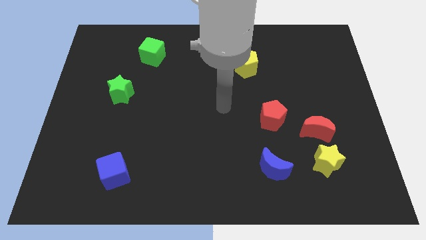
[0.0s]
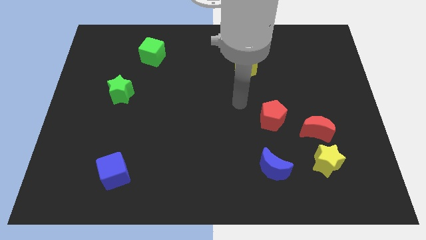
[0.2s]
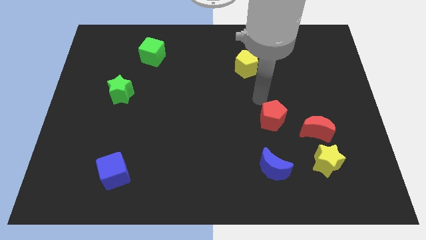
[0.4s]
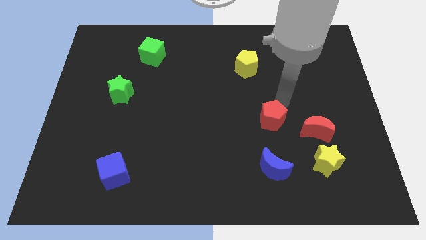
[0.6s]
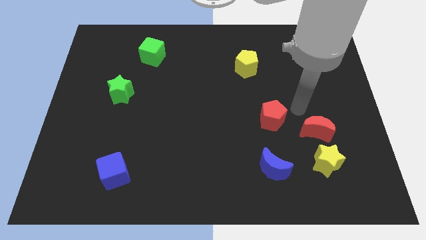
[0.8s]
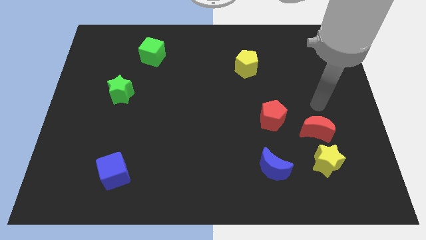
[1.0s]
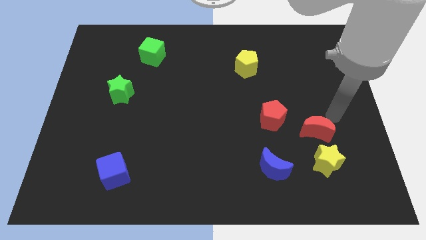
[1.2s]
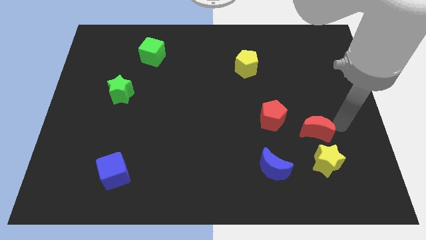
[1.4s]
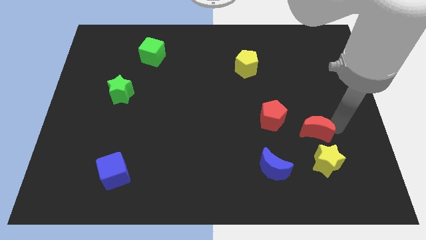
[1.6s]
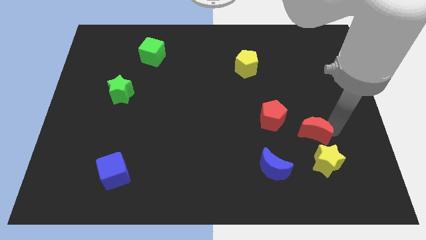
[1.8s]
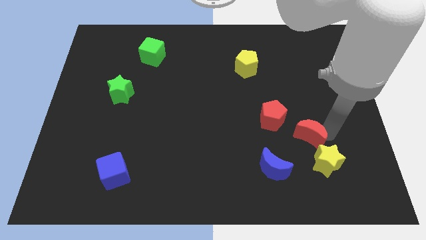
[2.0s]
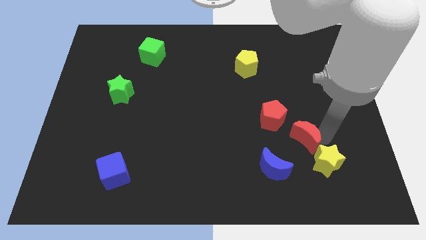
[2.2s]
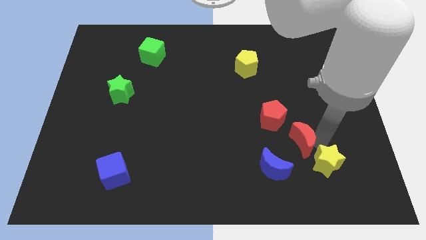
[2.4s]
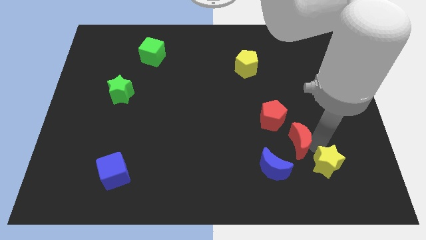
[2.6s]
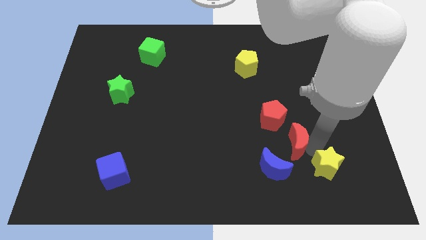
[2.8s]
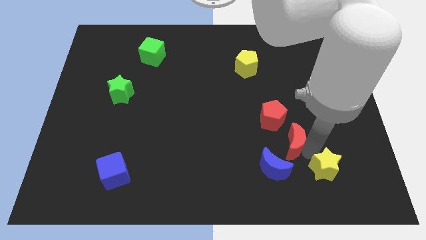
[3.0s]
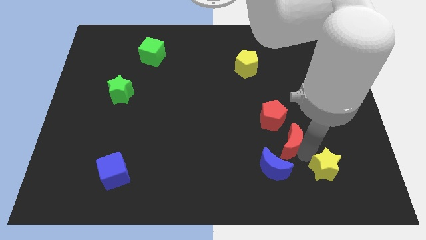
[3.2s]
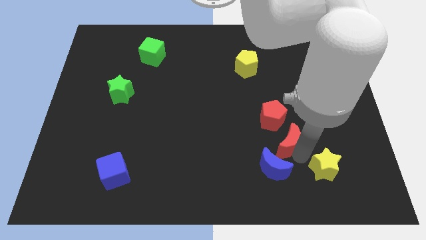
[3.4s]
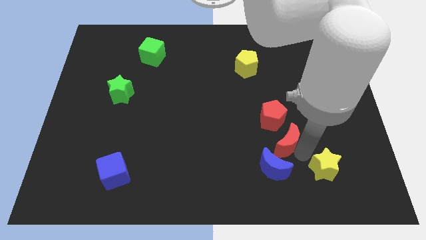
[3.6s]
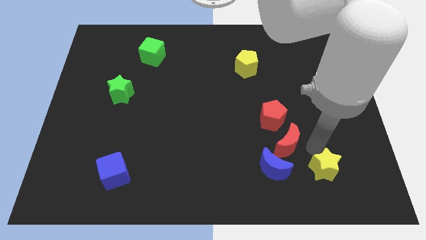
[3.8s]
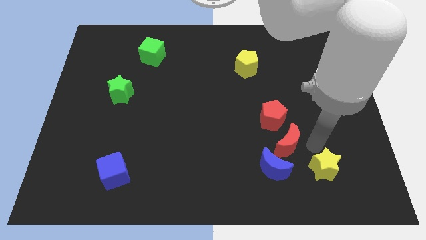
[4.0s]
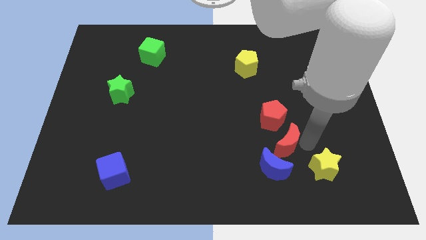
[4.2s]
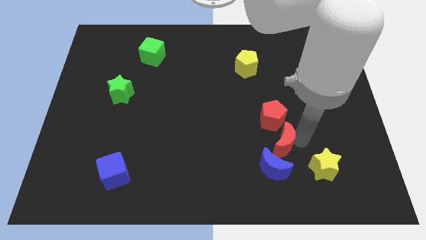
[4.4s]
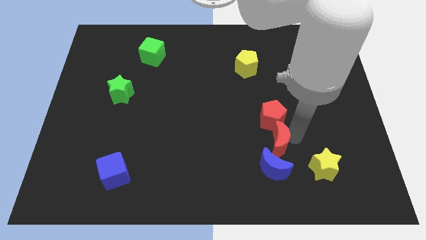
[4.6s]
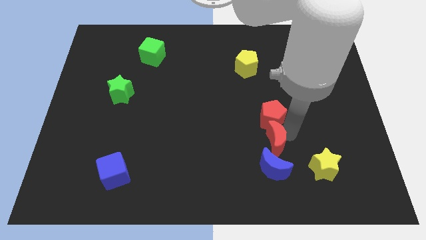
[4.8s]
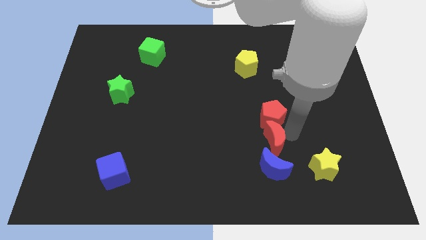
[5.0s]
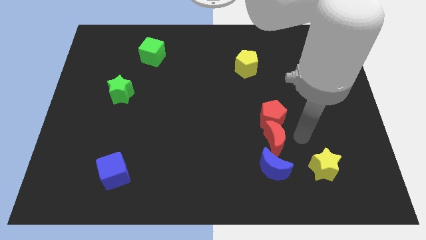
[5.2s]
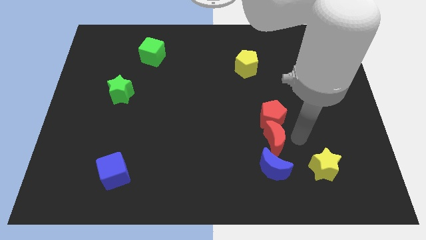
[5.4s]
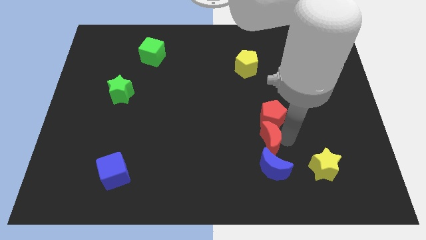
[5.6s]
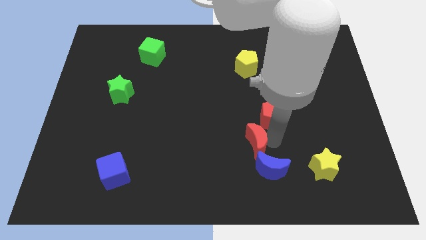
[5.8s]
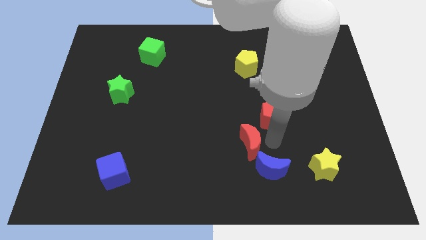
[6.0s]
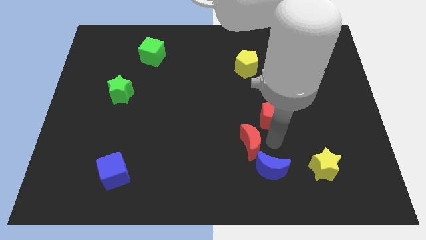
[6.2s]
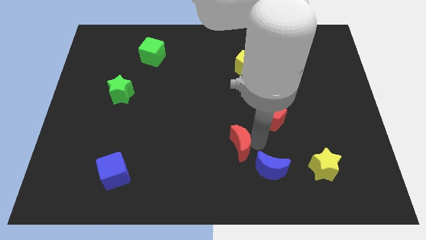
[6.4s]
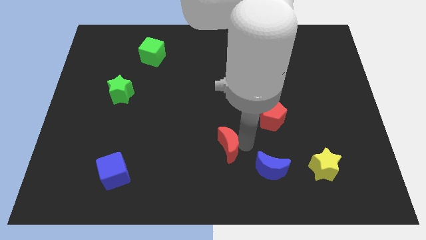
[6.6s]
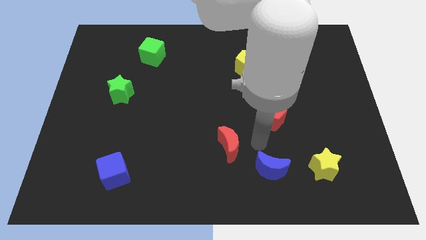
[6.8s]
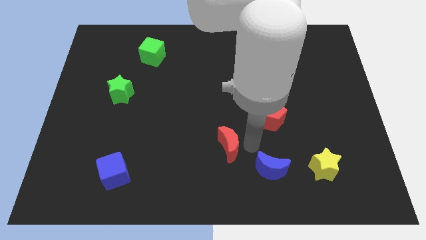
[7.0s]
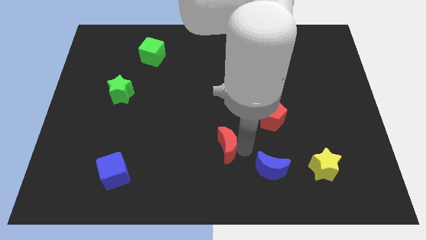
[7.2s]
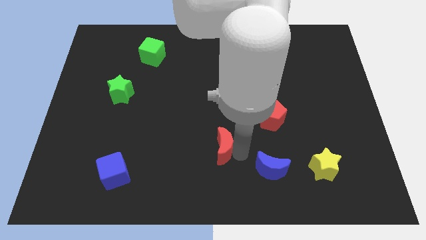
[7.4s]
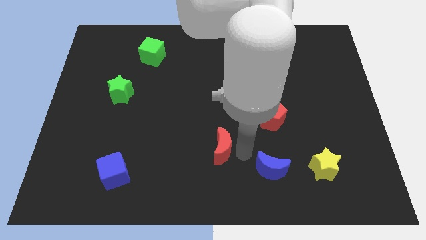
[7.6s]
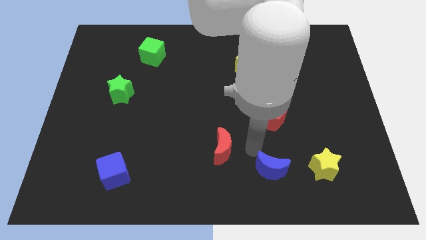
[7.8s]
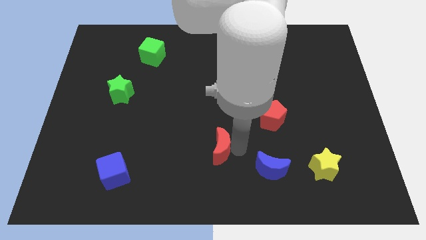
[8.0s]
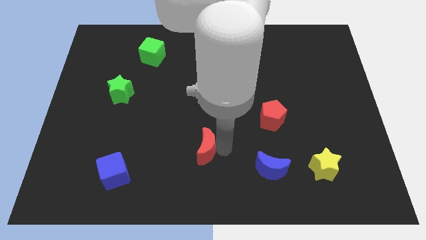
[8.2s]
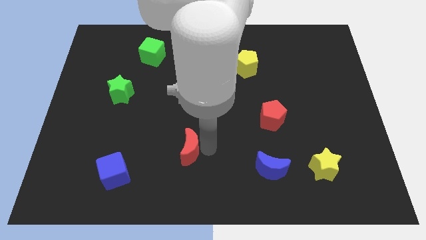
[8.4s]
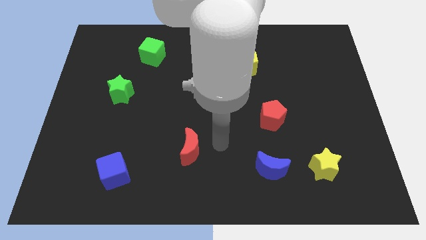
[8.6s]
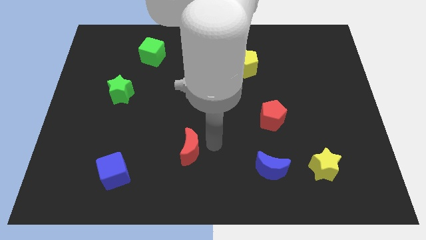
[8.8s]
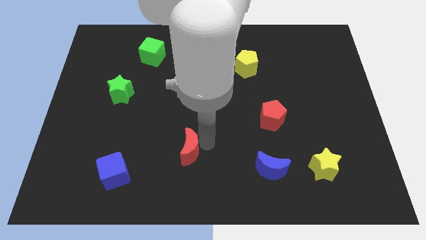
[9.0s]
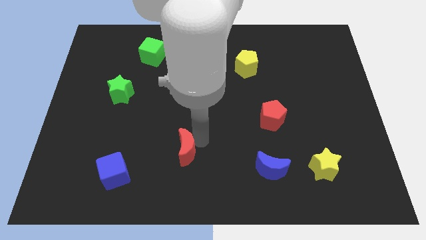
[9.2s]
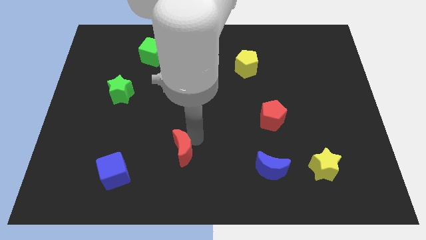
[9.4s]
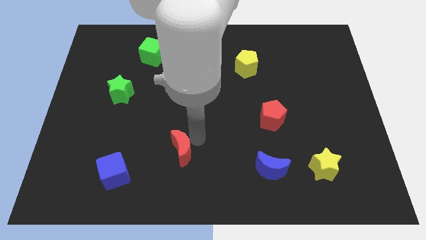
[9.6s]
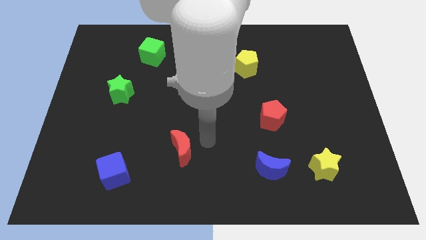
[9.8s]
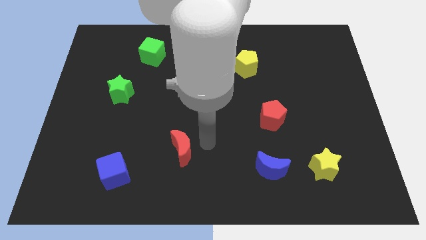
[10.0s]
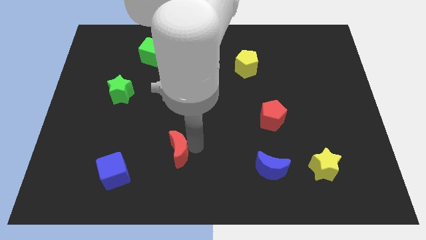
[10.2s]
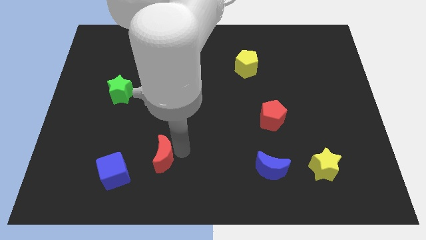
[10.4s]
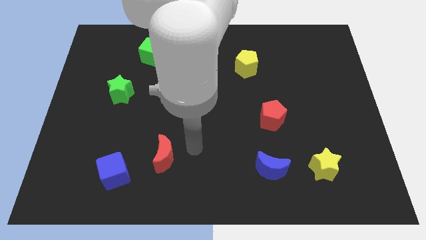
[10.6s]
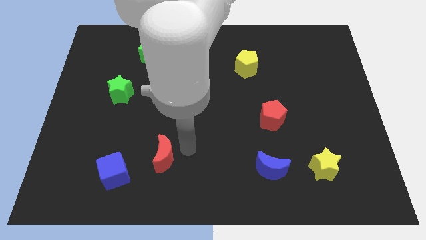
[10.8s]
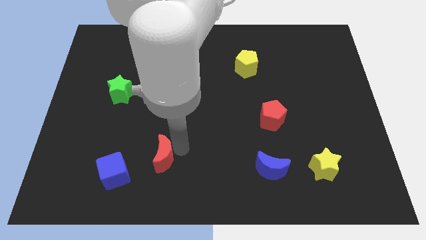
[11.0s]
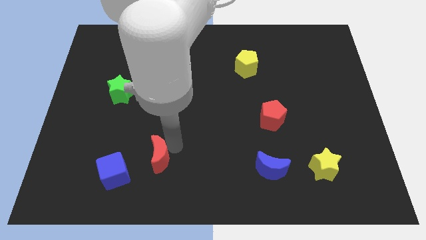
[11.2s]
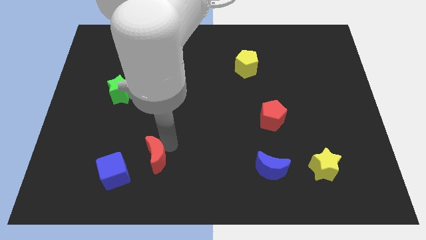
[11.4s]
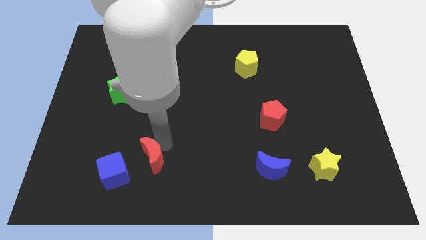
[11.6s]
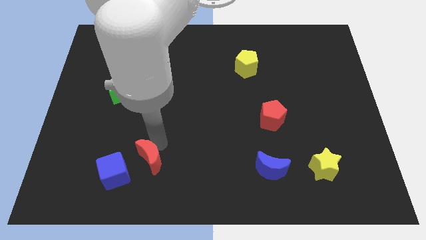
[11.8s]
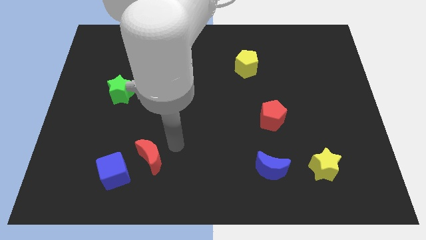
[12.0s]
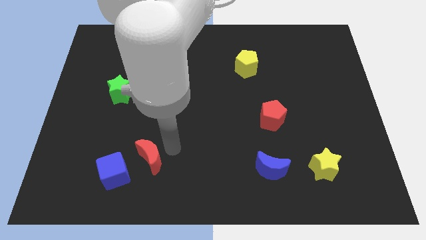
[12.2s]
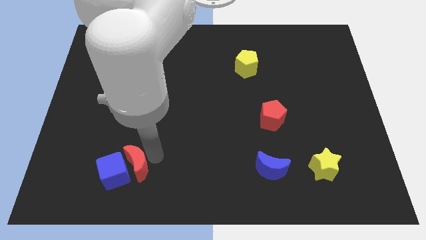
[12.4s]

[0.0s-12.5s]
push the red moon towards the blue cube

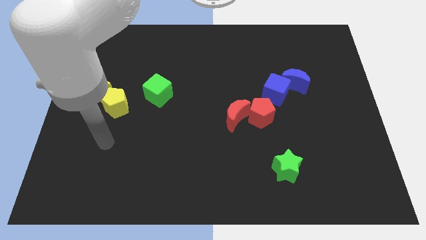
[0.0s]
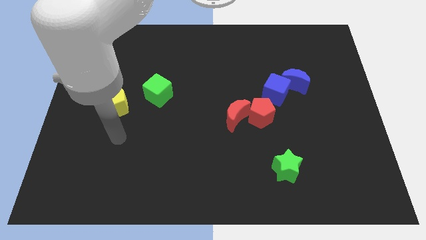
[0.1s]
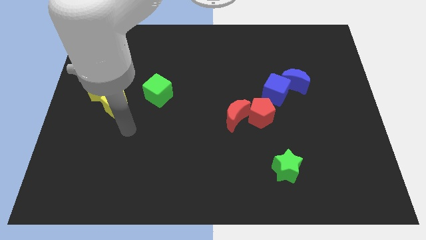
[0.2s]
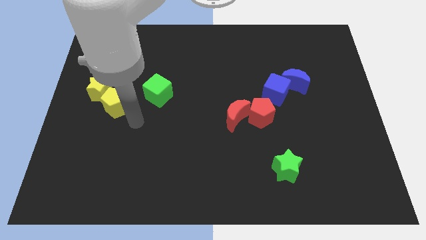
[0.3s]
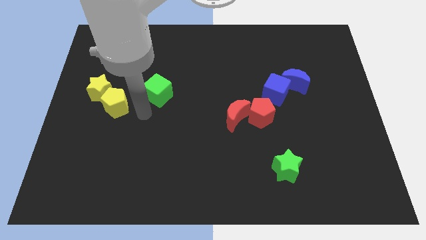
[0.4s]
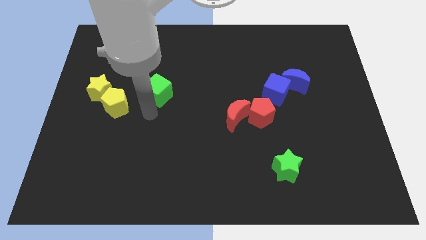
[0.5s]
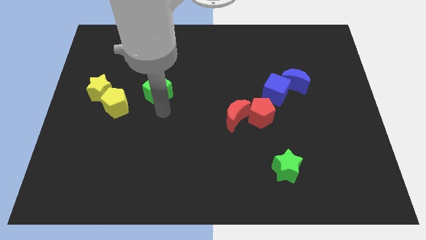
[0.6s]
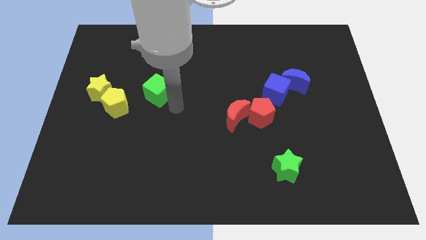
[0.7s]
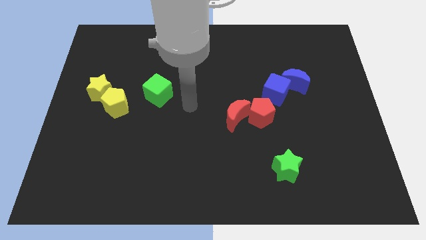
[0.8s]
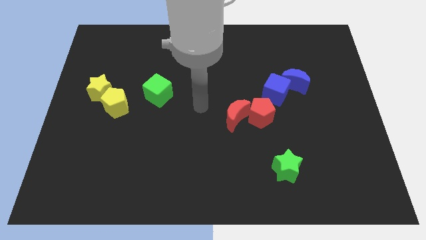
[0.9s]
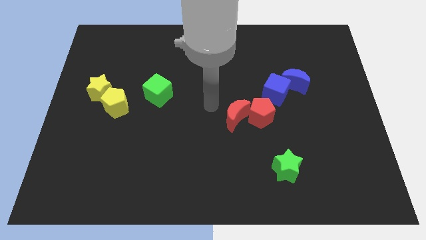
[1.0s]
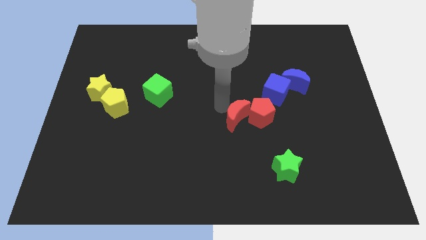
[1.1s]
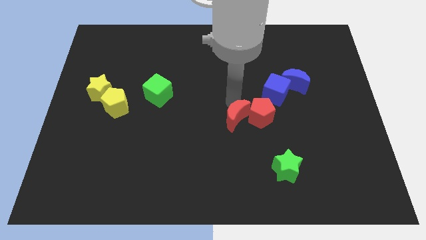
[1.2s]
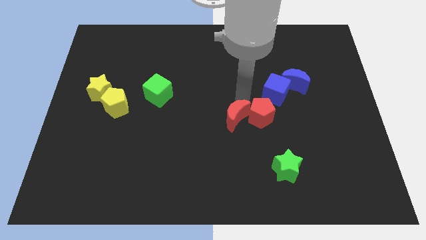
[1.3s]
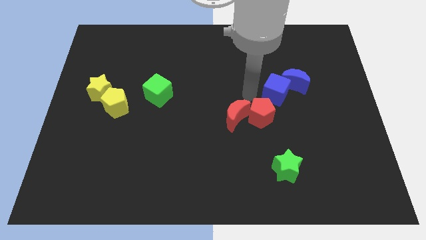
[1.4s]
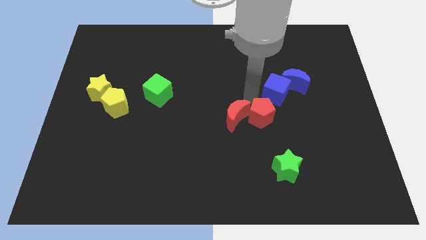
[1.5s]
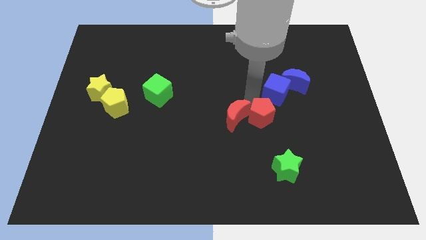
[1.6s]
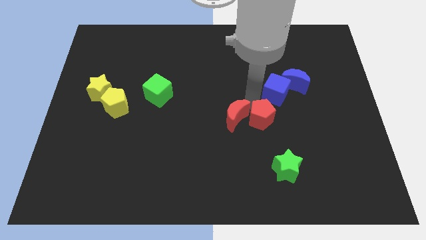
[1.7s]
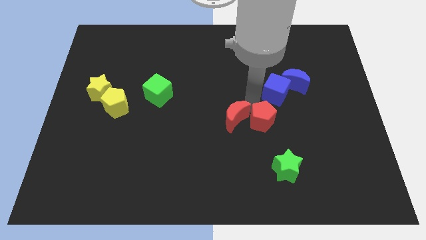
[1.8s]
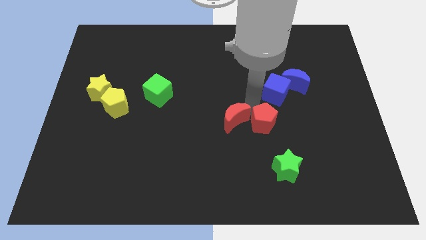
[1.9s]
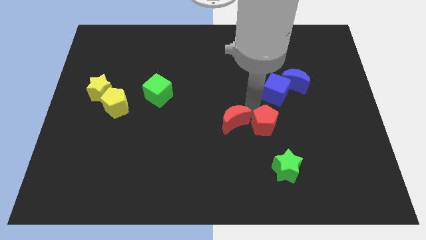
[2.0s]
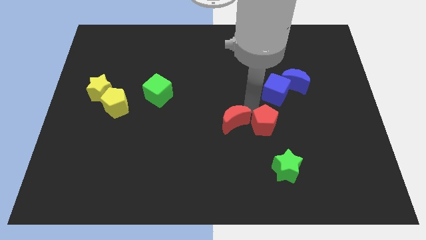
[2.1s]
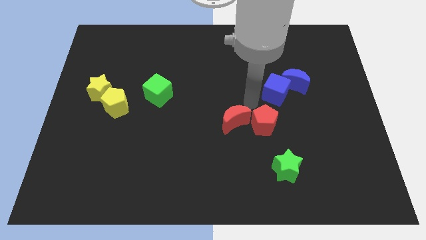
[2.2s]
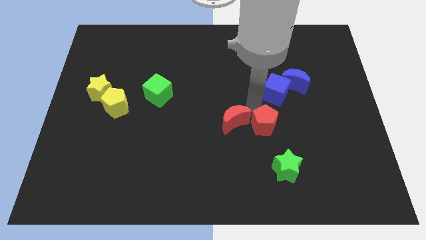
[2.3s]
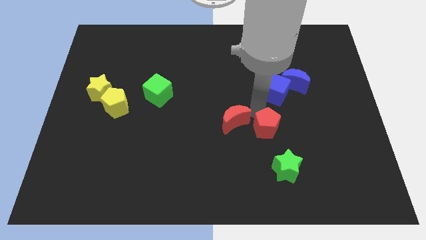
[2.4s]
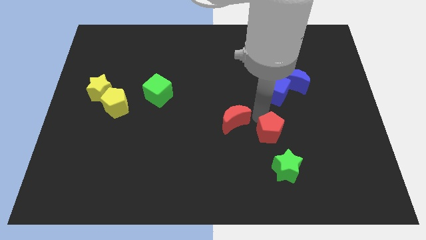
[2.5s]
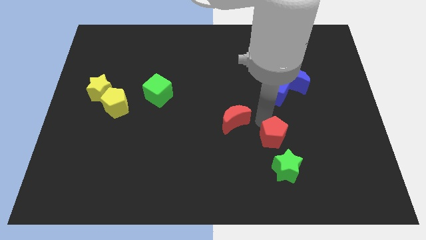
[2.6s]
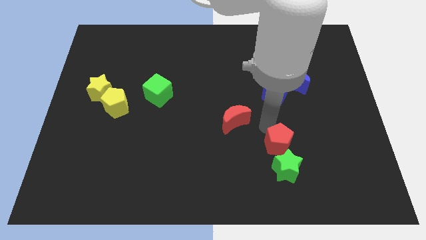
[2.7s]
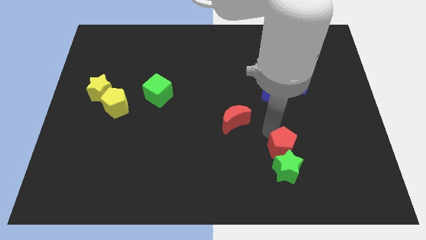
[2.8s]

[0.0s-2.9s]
push the red pentagon close to the green star
